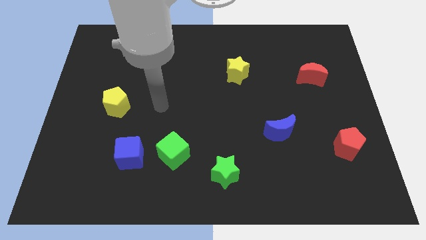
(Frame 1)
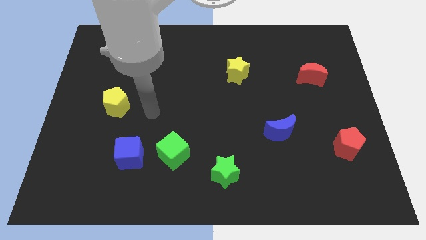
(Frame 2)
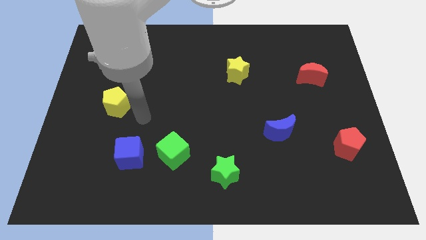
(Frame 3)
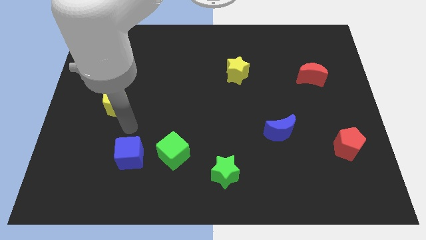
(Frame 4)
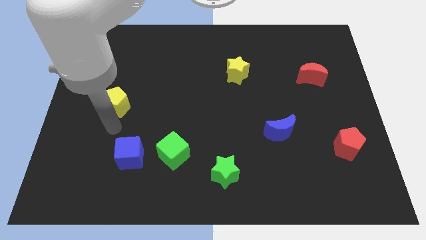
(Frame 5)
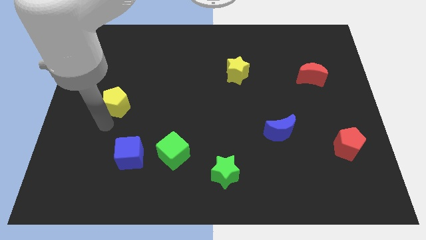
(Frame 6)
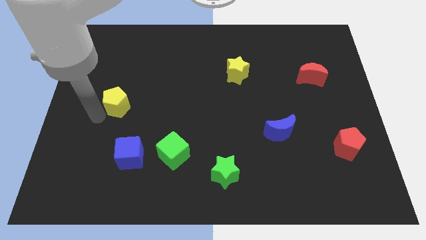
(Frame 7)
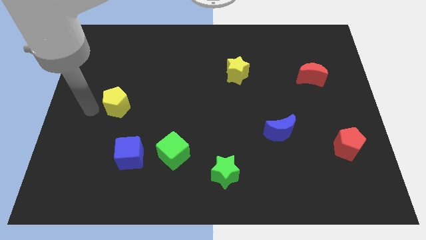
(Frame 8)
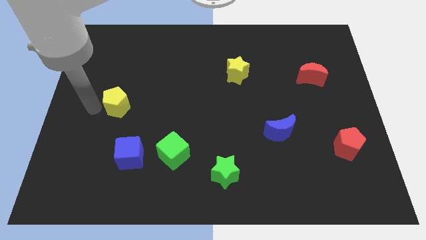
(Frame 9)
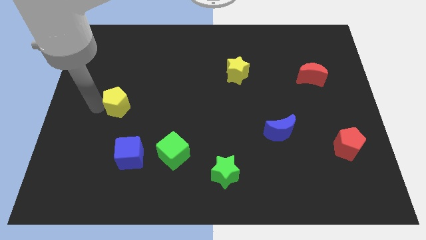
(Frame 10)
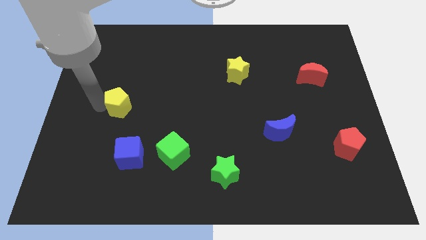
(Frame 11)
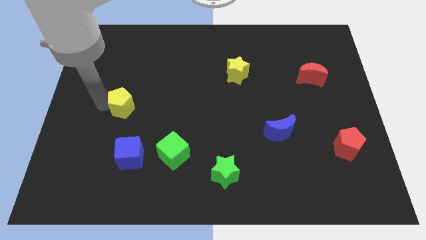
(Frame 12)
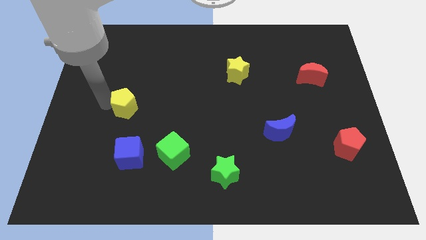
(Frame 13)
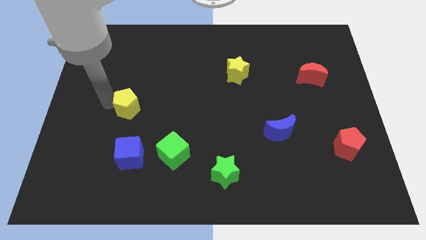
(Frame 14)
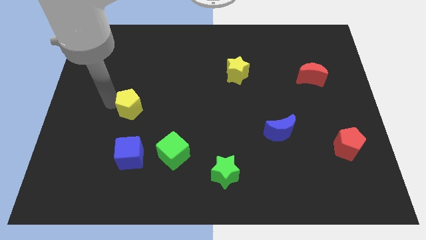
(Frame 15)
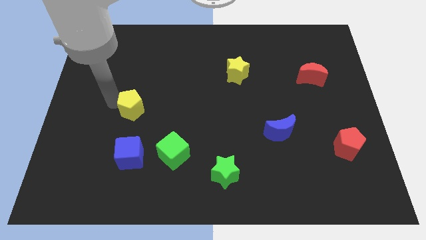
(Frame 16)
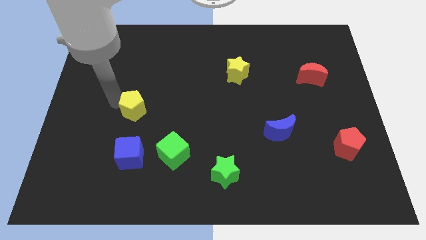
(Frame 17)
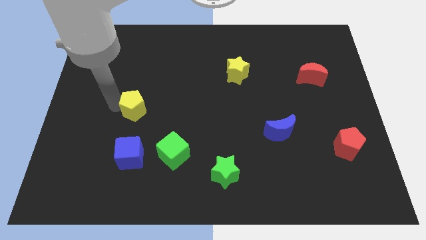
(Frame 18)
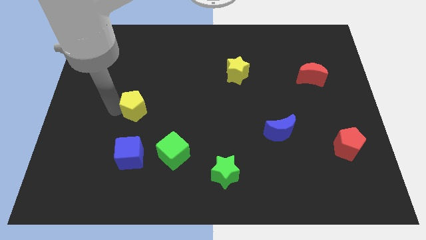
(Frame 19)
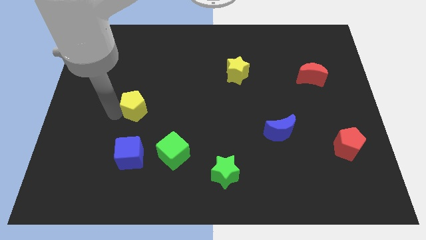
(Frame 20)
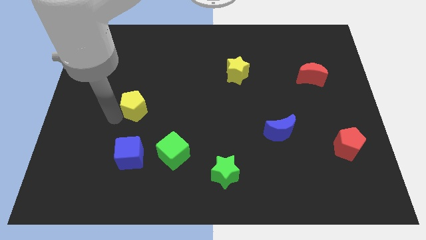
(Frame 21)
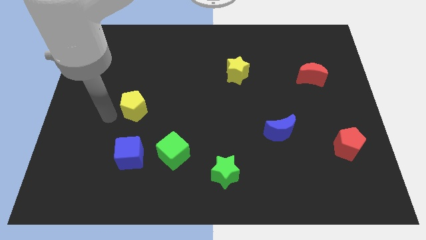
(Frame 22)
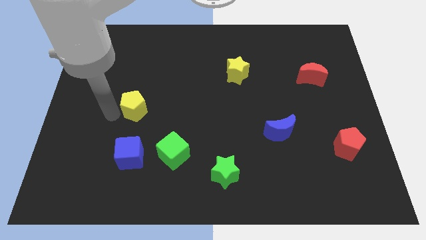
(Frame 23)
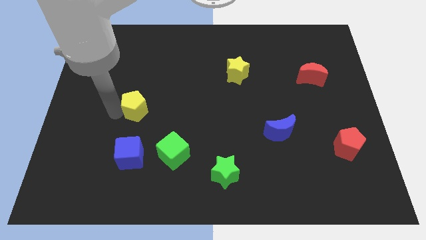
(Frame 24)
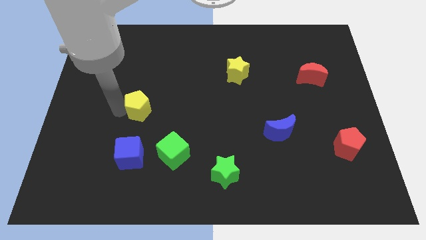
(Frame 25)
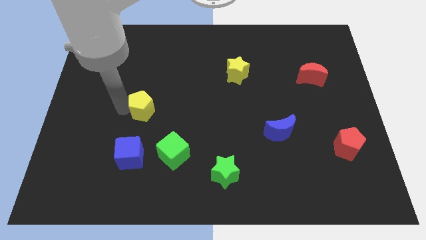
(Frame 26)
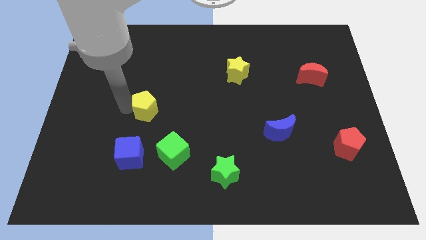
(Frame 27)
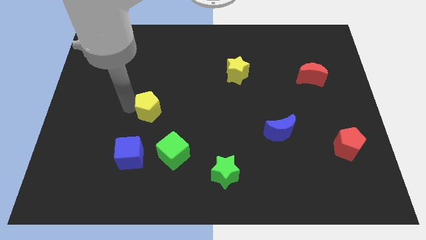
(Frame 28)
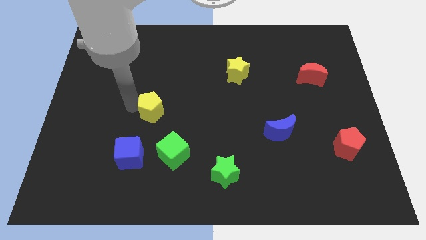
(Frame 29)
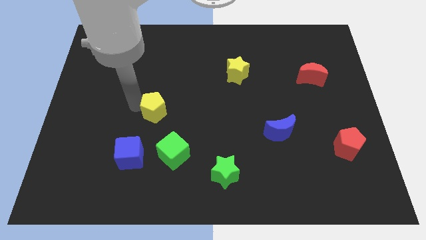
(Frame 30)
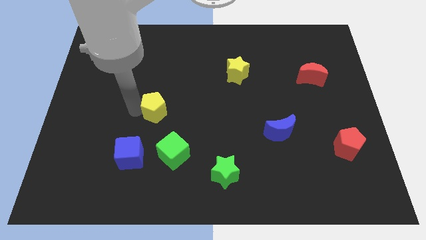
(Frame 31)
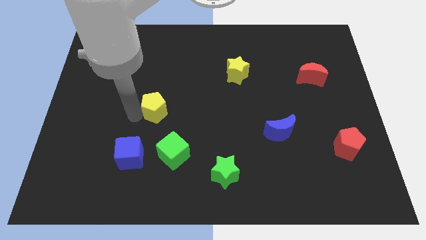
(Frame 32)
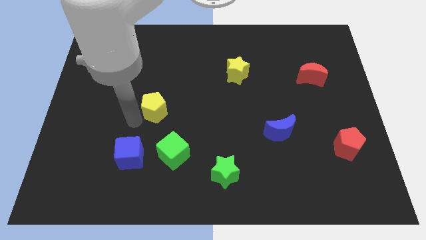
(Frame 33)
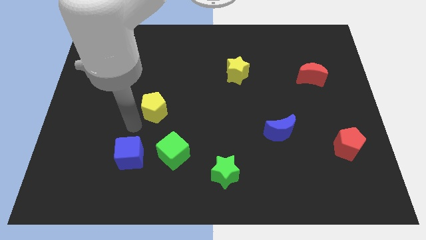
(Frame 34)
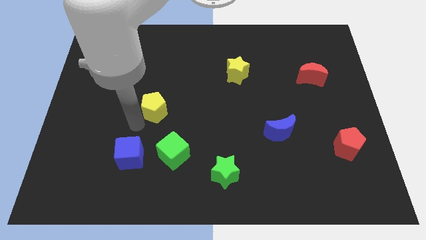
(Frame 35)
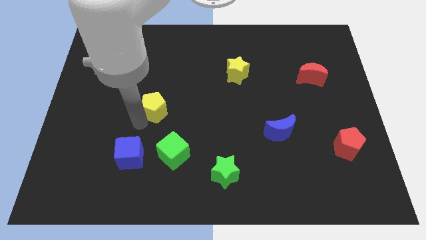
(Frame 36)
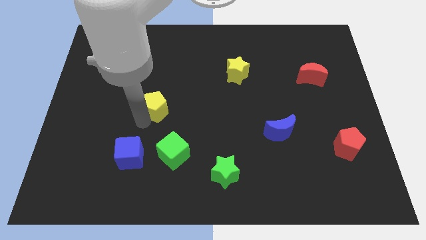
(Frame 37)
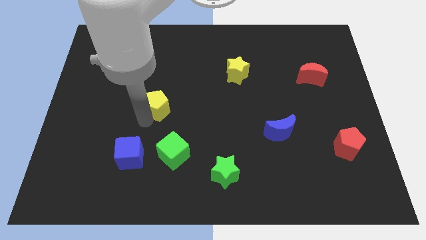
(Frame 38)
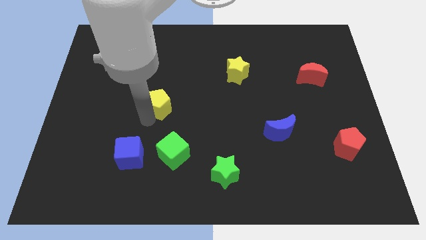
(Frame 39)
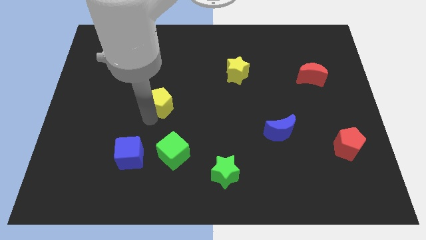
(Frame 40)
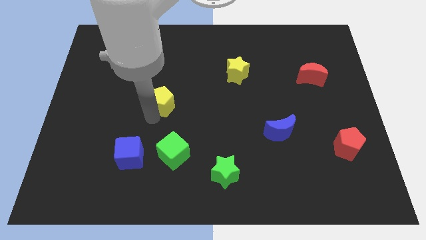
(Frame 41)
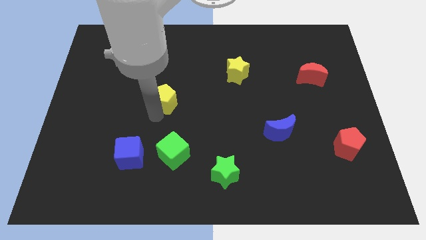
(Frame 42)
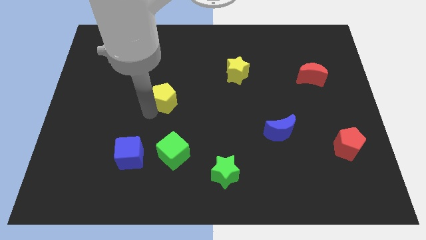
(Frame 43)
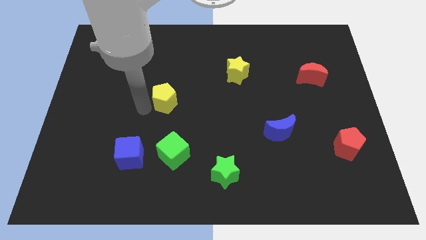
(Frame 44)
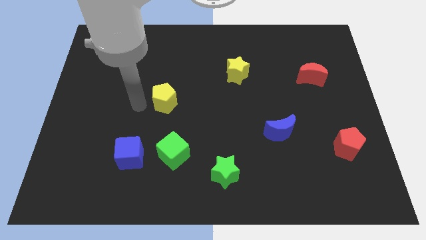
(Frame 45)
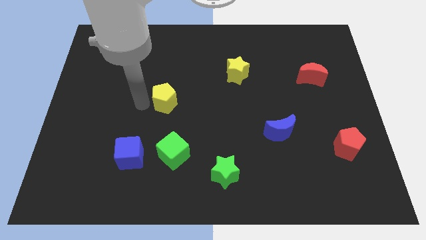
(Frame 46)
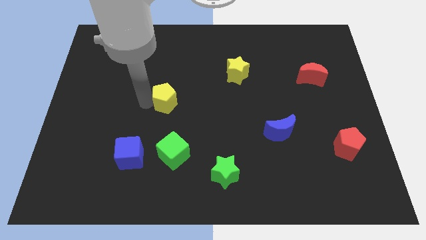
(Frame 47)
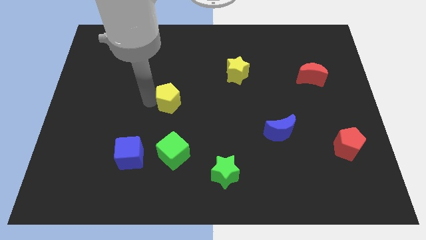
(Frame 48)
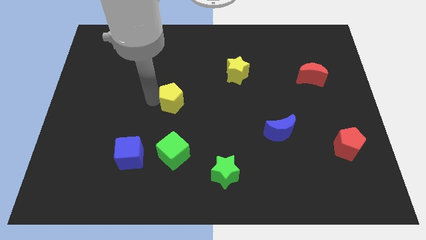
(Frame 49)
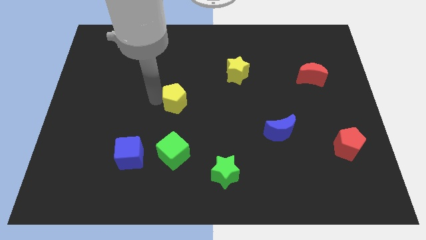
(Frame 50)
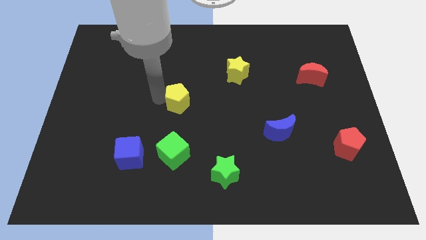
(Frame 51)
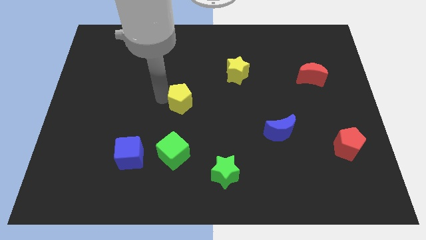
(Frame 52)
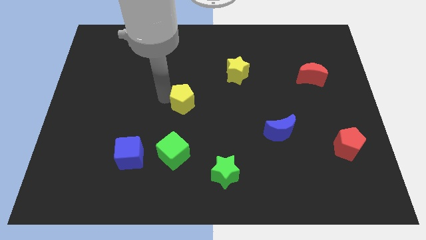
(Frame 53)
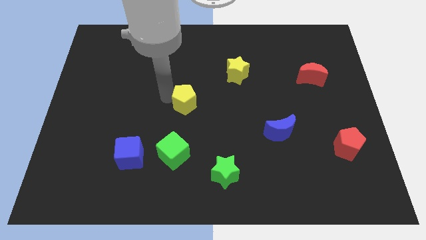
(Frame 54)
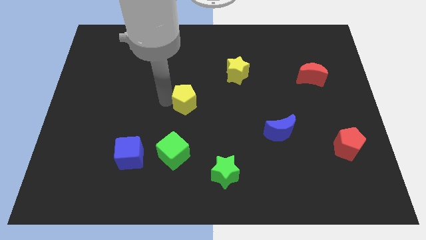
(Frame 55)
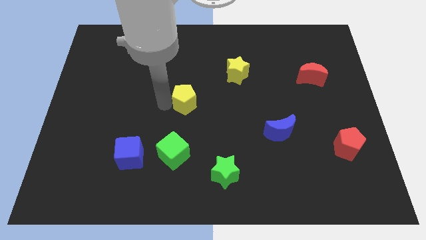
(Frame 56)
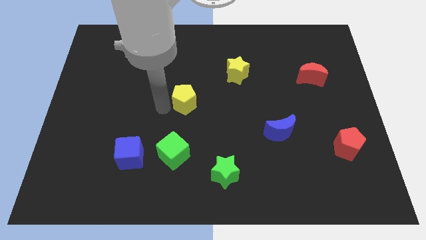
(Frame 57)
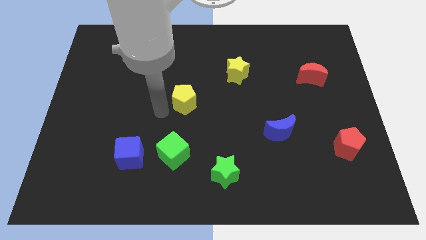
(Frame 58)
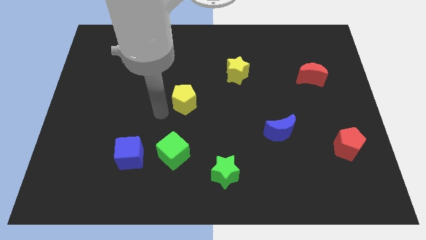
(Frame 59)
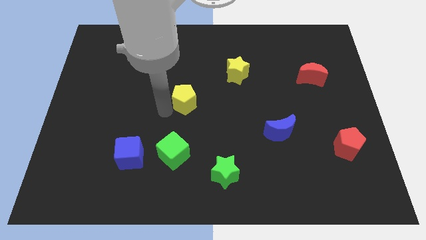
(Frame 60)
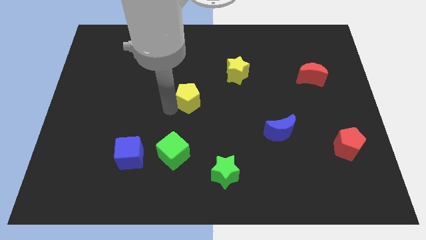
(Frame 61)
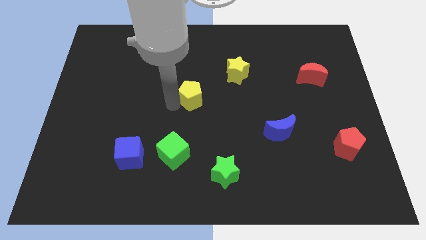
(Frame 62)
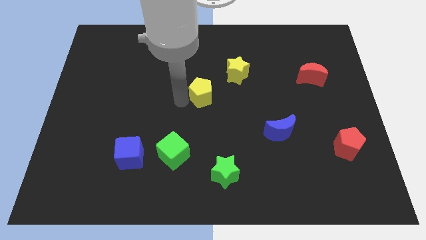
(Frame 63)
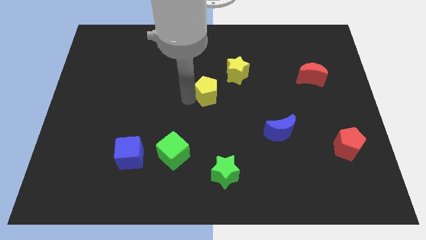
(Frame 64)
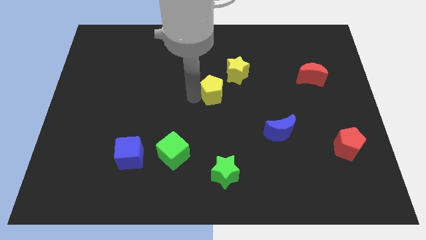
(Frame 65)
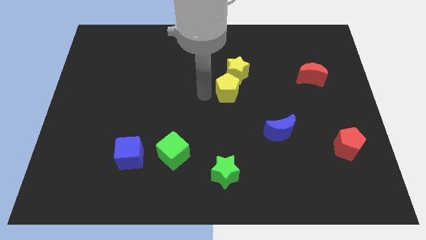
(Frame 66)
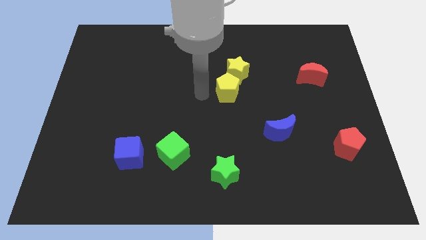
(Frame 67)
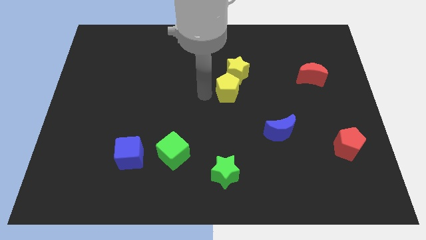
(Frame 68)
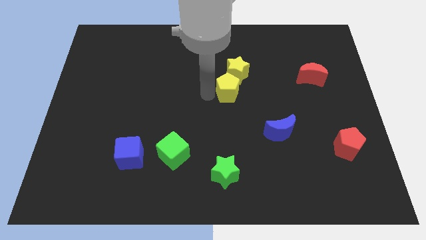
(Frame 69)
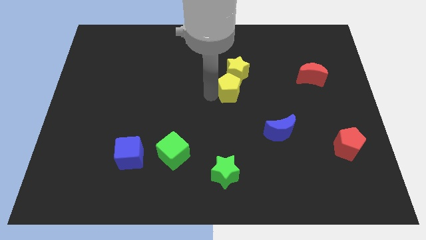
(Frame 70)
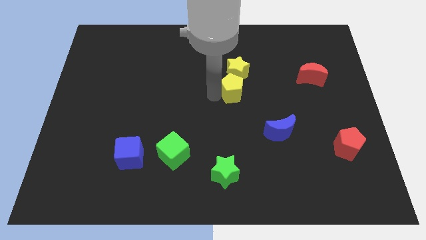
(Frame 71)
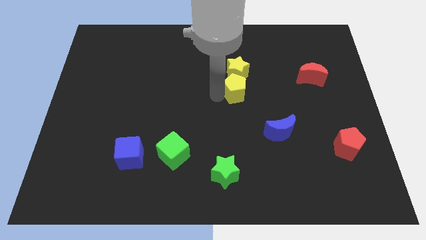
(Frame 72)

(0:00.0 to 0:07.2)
slide the yellow pentagon to the bottom right side of the yellow star

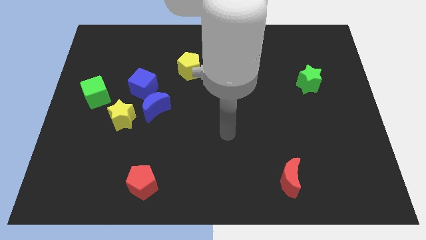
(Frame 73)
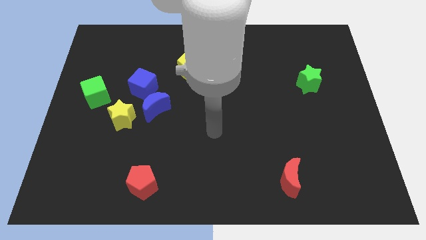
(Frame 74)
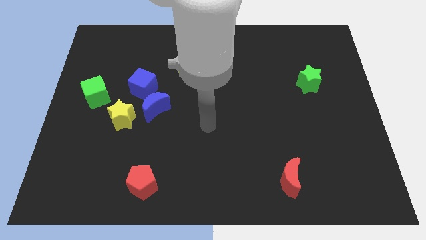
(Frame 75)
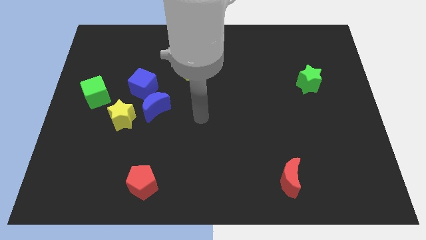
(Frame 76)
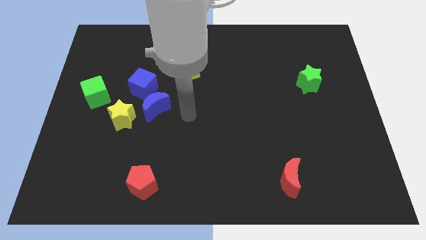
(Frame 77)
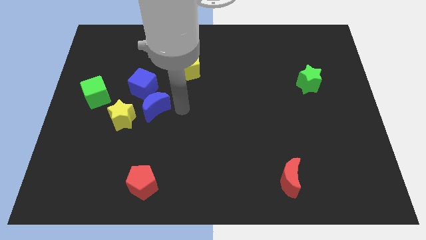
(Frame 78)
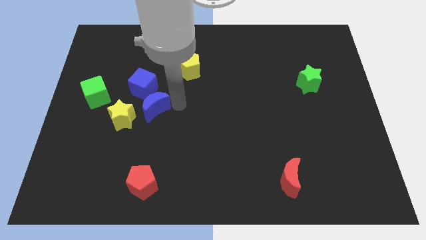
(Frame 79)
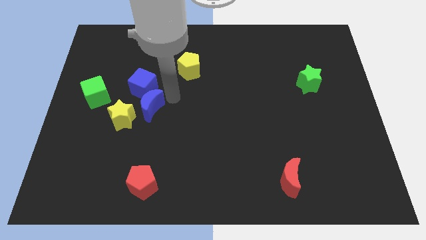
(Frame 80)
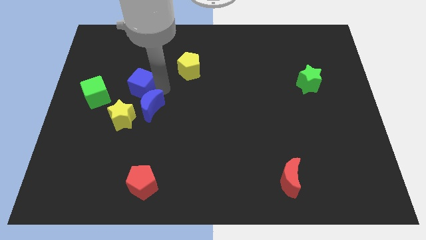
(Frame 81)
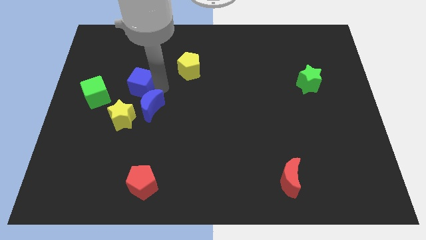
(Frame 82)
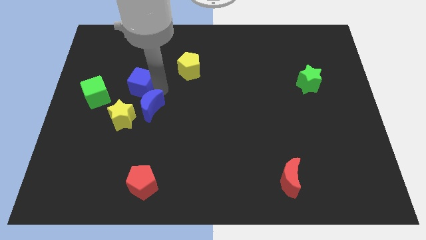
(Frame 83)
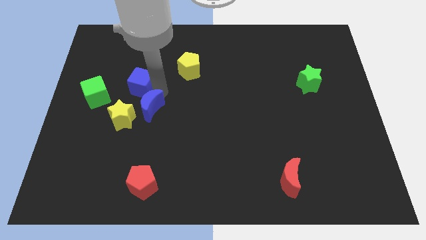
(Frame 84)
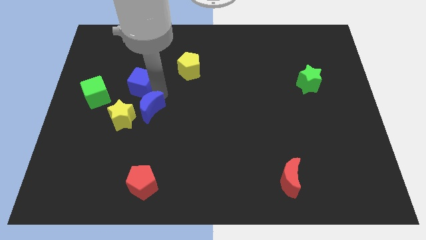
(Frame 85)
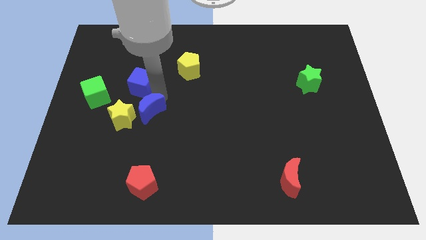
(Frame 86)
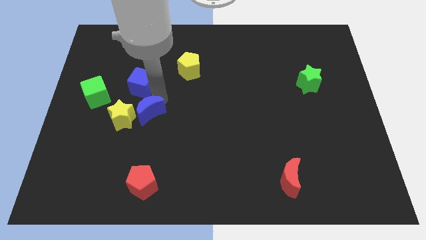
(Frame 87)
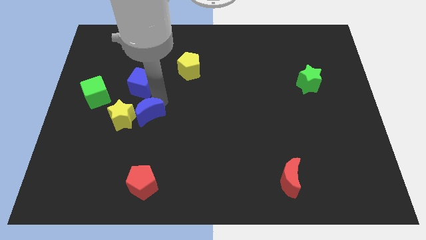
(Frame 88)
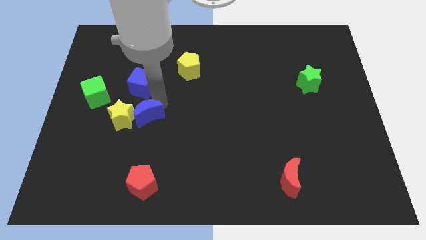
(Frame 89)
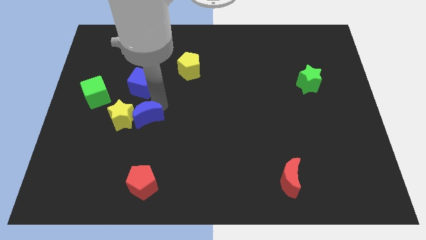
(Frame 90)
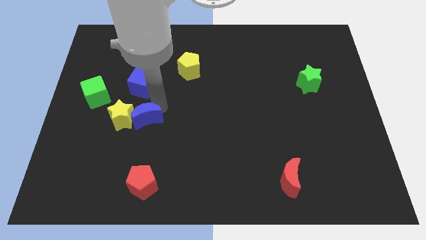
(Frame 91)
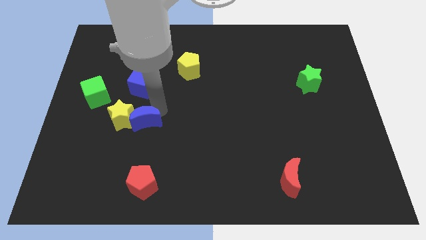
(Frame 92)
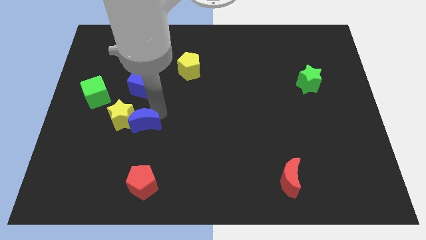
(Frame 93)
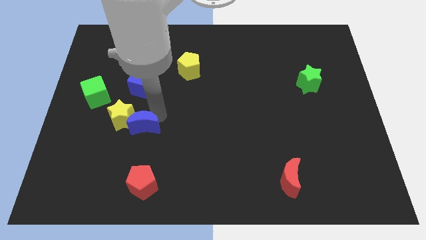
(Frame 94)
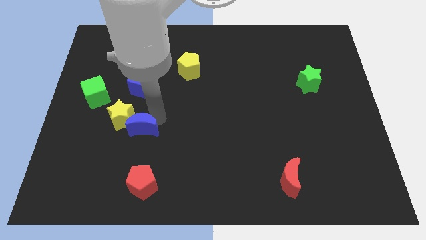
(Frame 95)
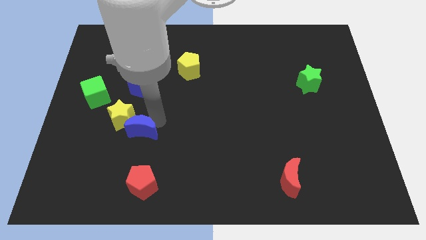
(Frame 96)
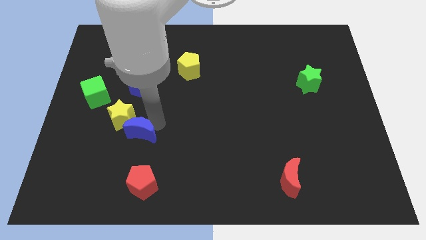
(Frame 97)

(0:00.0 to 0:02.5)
put the blue moon below the yellow star
